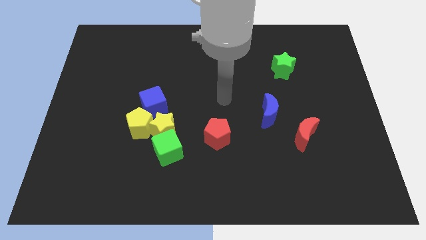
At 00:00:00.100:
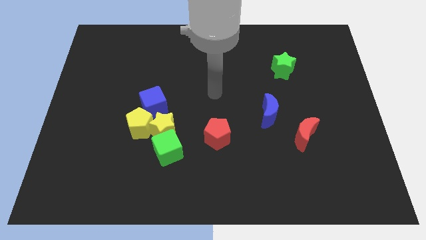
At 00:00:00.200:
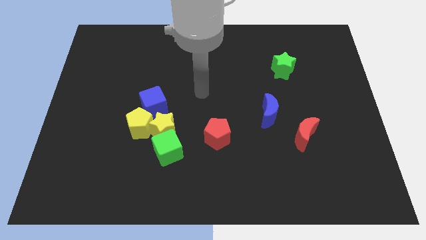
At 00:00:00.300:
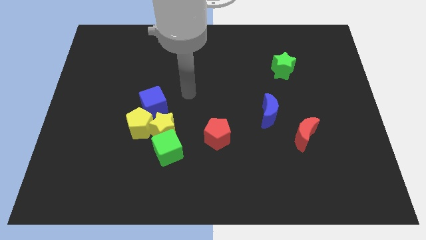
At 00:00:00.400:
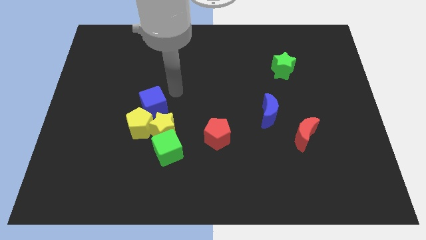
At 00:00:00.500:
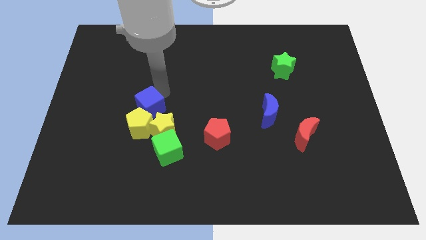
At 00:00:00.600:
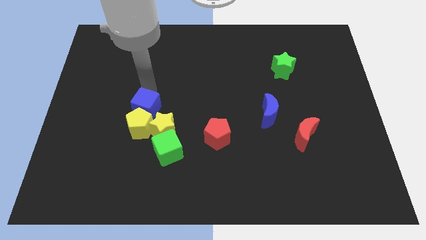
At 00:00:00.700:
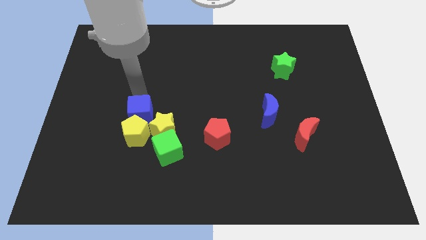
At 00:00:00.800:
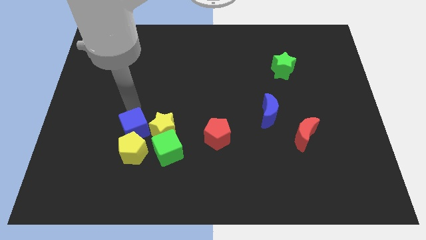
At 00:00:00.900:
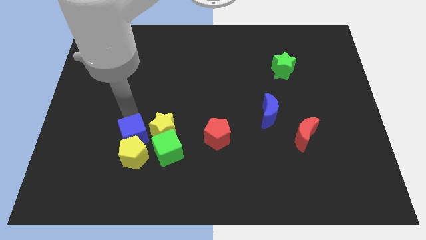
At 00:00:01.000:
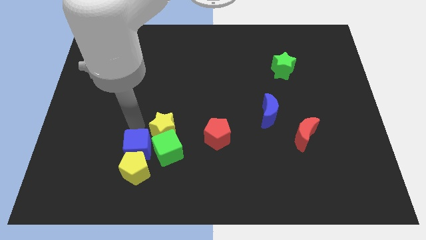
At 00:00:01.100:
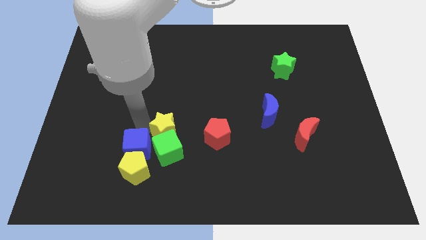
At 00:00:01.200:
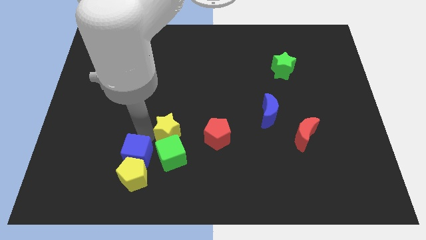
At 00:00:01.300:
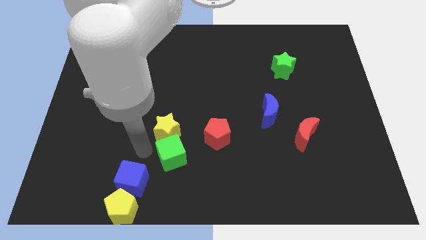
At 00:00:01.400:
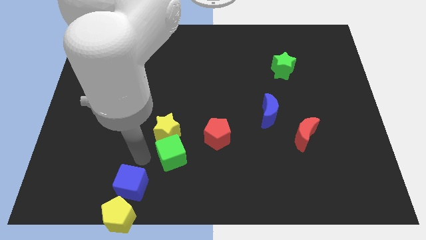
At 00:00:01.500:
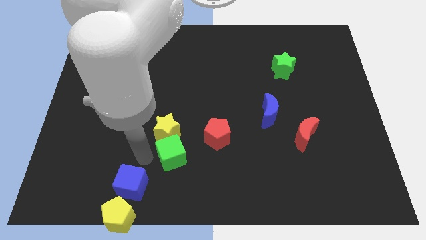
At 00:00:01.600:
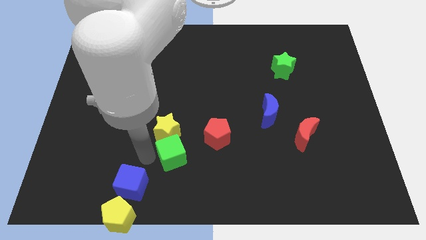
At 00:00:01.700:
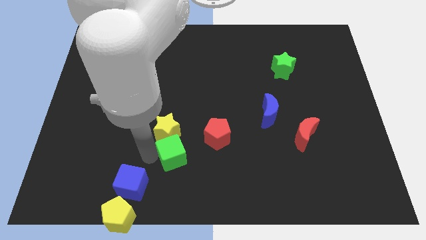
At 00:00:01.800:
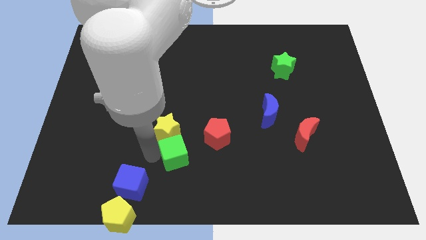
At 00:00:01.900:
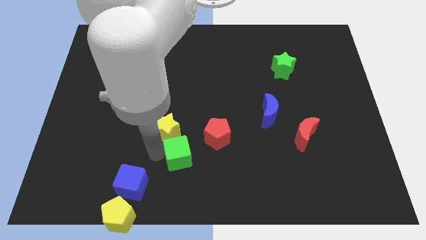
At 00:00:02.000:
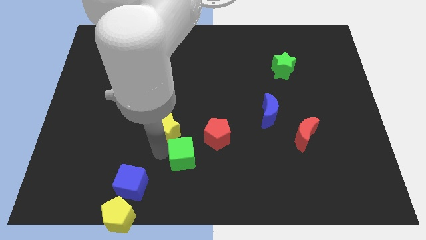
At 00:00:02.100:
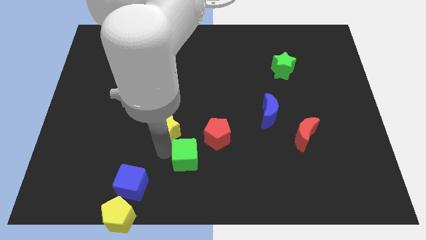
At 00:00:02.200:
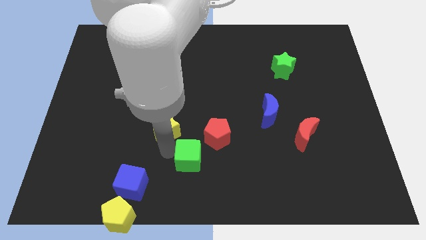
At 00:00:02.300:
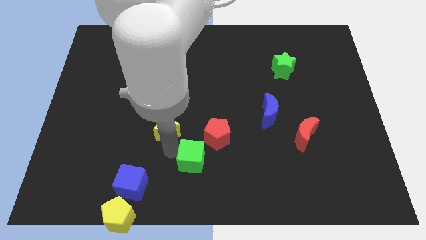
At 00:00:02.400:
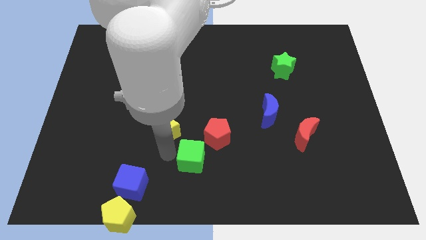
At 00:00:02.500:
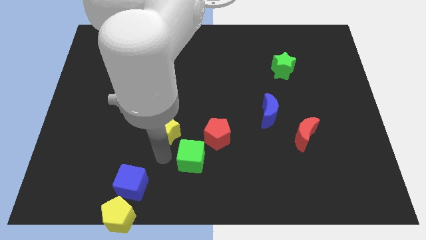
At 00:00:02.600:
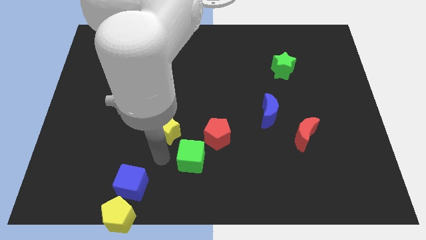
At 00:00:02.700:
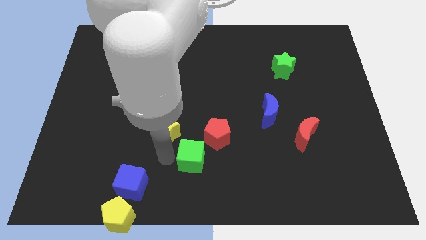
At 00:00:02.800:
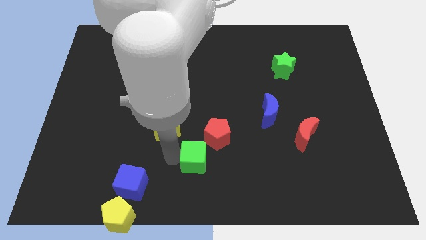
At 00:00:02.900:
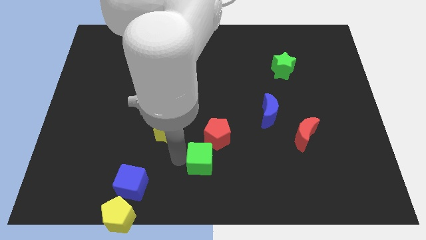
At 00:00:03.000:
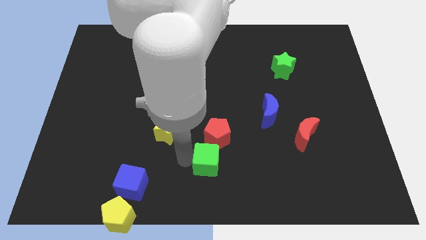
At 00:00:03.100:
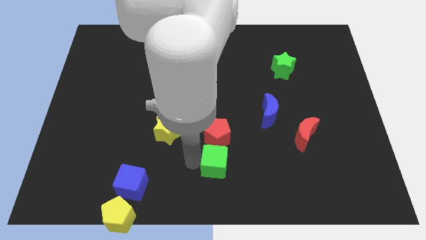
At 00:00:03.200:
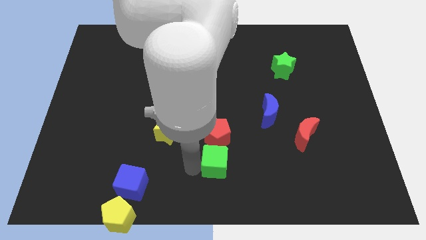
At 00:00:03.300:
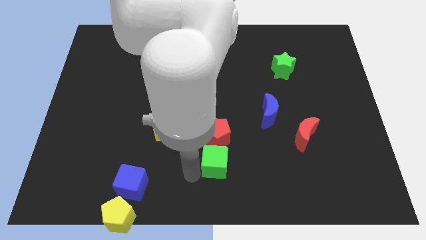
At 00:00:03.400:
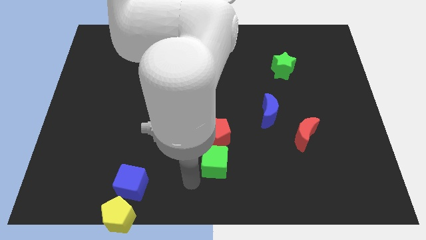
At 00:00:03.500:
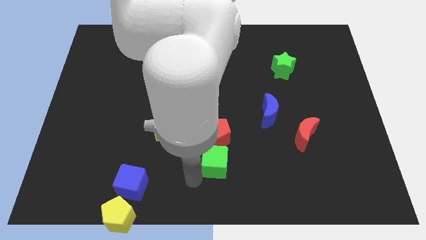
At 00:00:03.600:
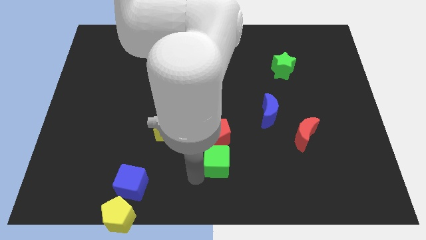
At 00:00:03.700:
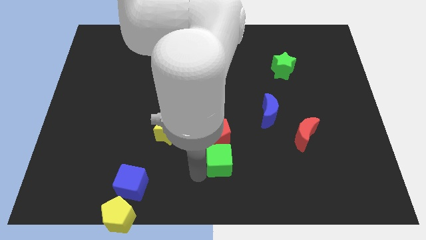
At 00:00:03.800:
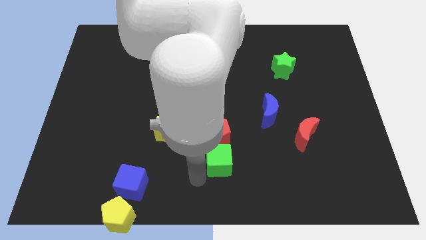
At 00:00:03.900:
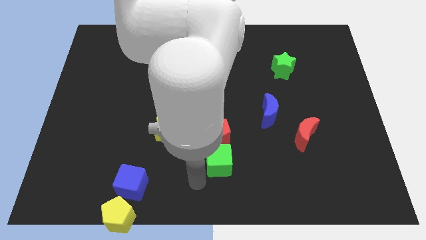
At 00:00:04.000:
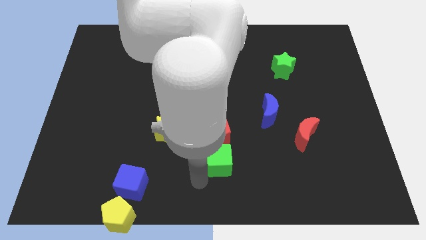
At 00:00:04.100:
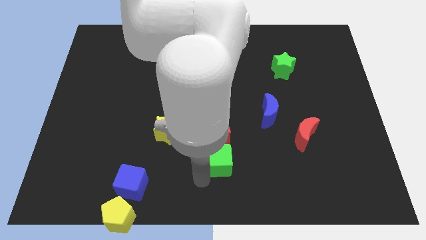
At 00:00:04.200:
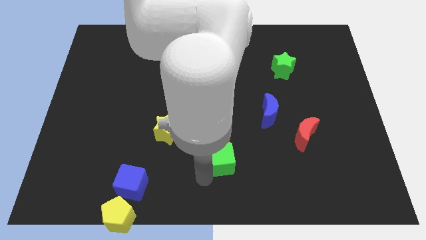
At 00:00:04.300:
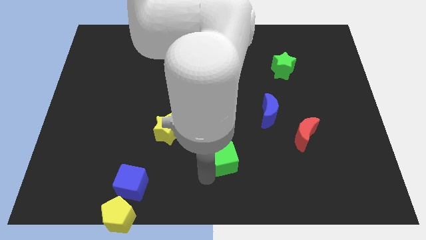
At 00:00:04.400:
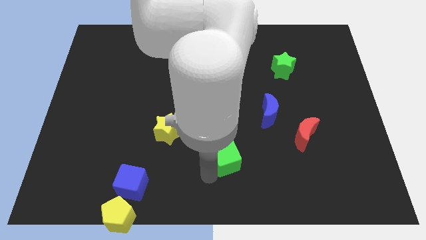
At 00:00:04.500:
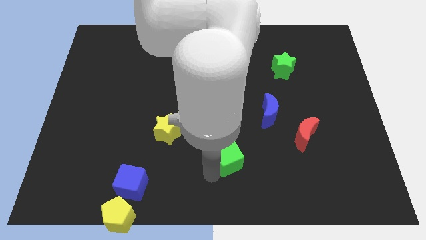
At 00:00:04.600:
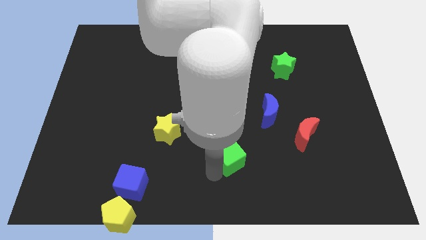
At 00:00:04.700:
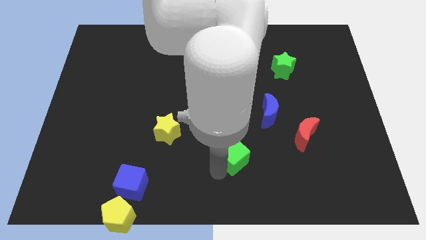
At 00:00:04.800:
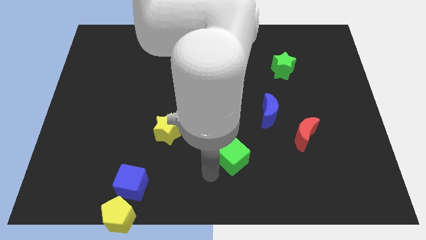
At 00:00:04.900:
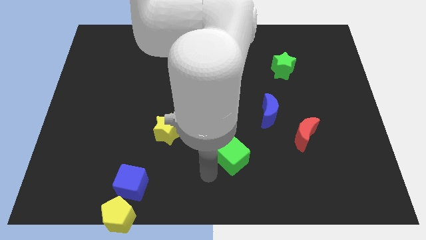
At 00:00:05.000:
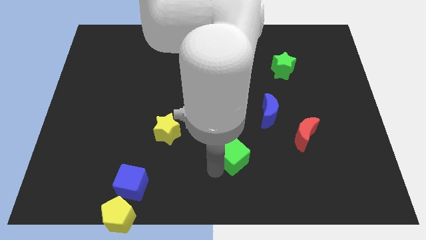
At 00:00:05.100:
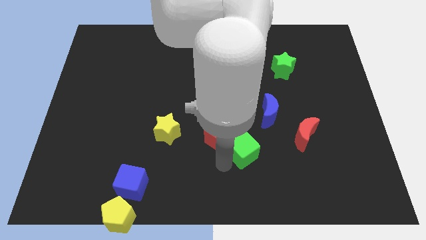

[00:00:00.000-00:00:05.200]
move the green cube to the right of the red pentagon

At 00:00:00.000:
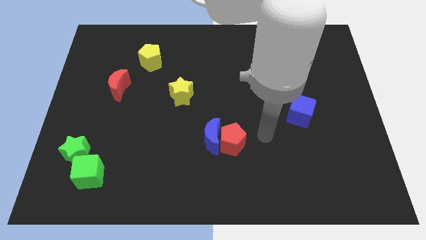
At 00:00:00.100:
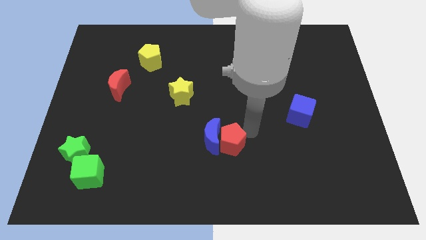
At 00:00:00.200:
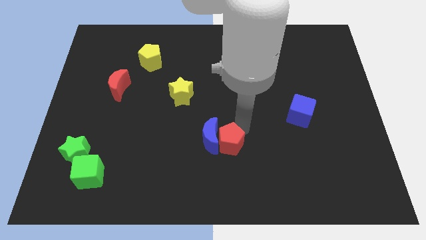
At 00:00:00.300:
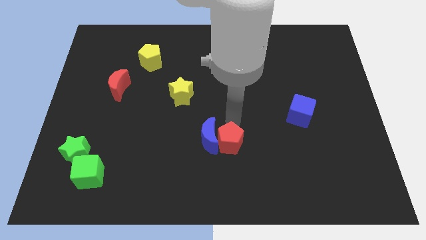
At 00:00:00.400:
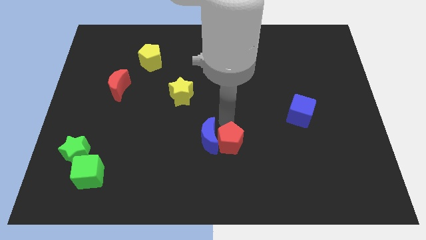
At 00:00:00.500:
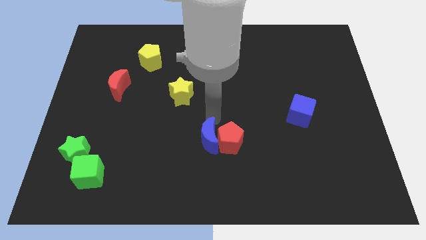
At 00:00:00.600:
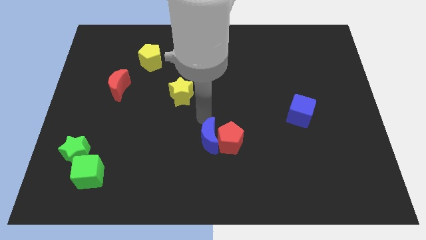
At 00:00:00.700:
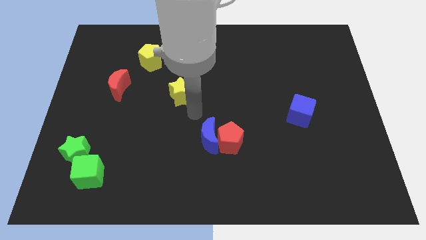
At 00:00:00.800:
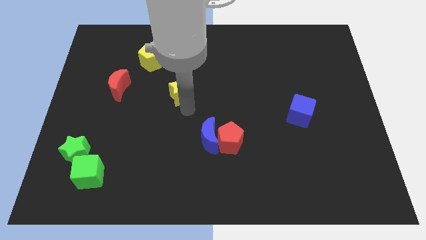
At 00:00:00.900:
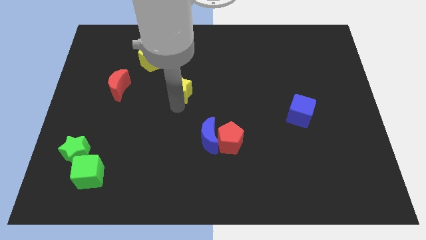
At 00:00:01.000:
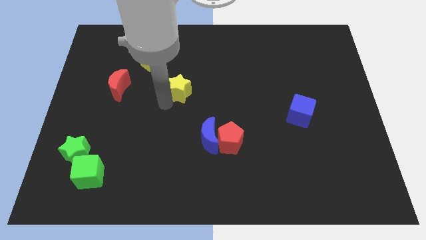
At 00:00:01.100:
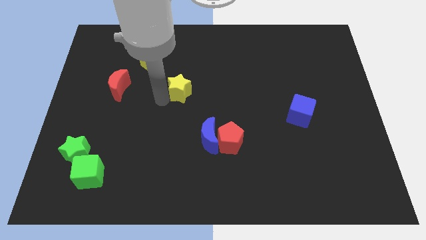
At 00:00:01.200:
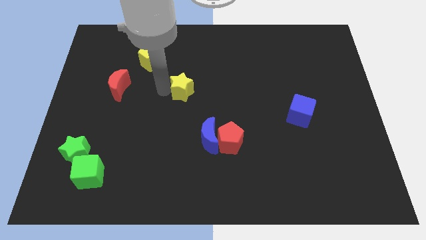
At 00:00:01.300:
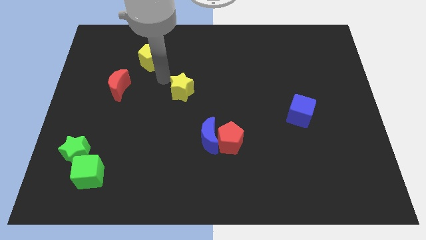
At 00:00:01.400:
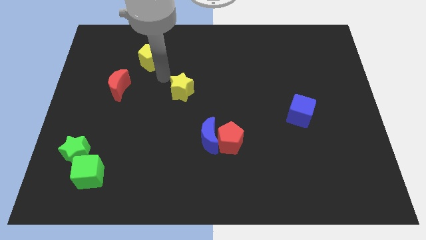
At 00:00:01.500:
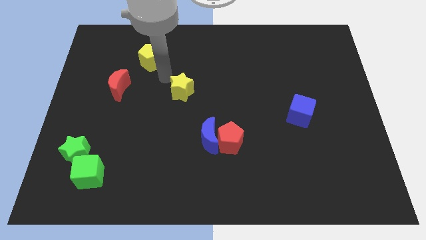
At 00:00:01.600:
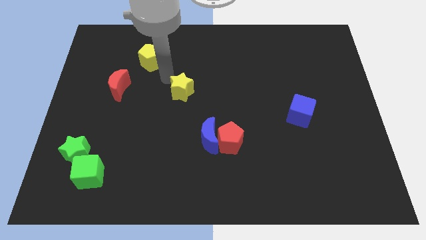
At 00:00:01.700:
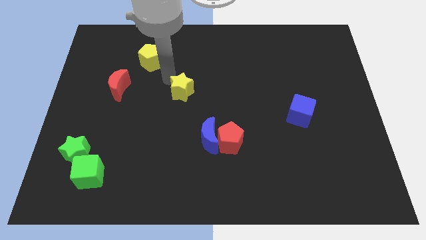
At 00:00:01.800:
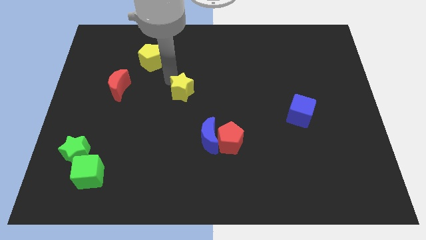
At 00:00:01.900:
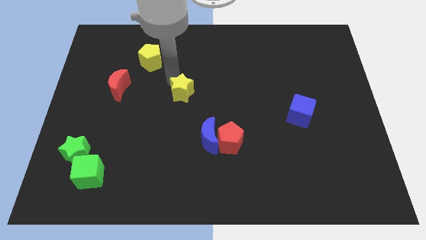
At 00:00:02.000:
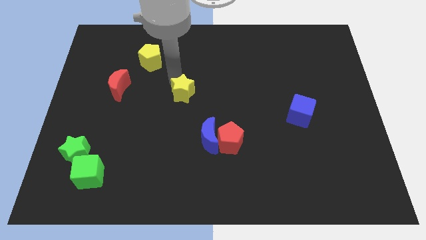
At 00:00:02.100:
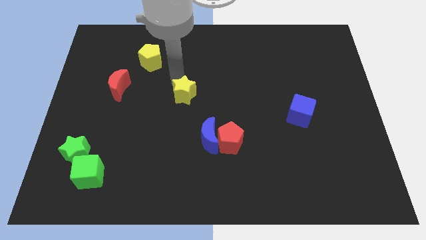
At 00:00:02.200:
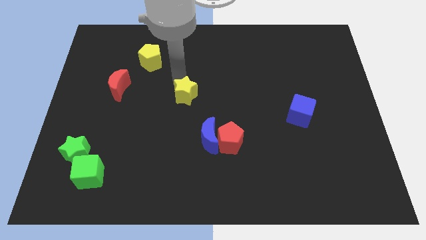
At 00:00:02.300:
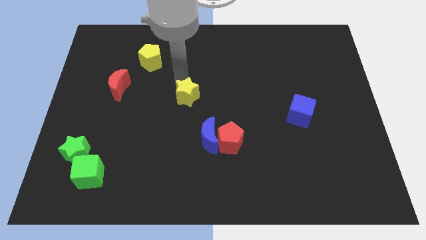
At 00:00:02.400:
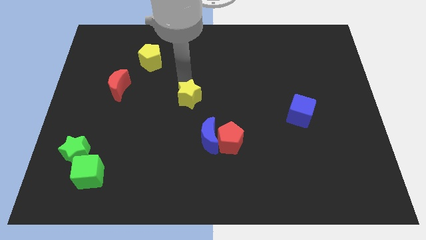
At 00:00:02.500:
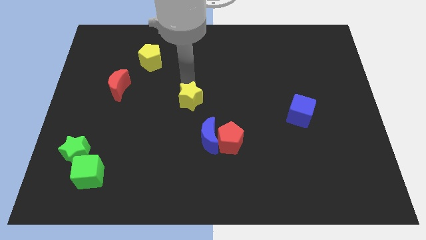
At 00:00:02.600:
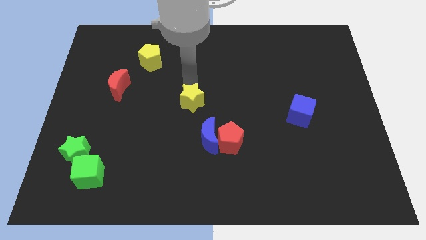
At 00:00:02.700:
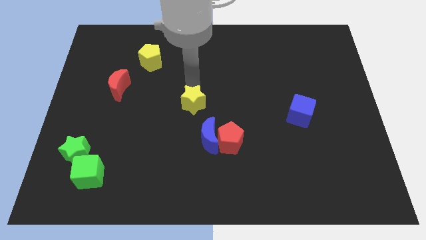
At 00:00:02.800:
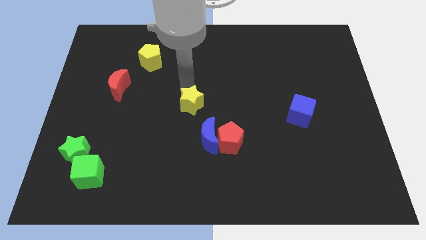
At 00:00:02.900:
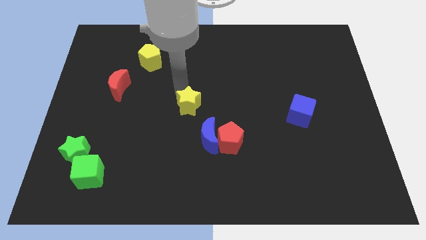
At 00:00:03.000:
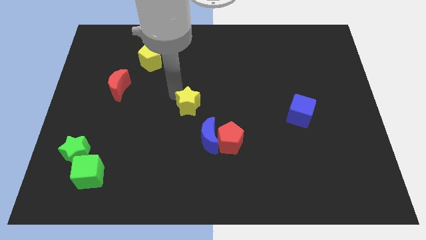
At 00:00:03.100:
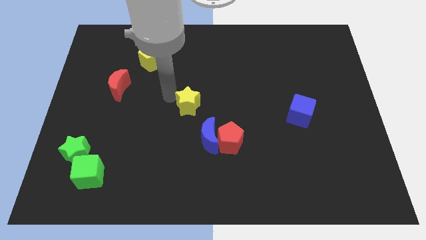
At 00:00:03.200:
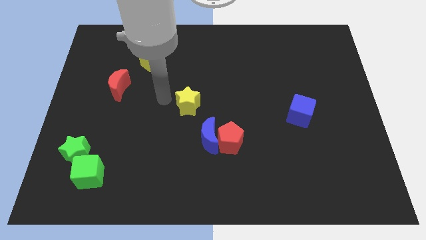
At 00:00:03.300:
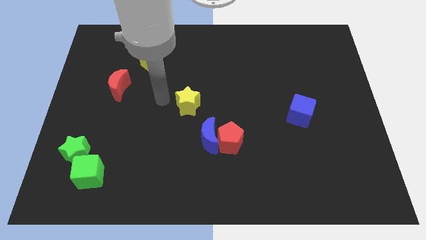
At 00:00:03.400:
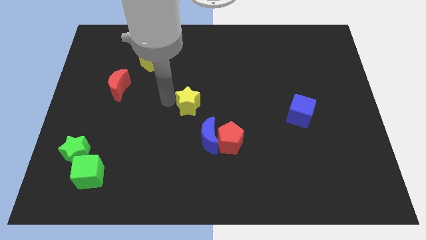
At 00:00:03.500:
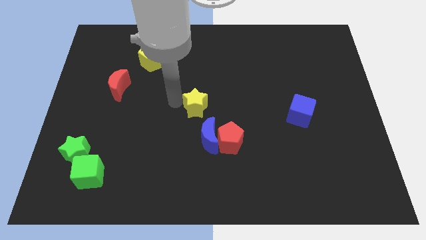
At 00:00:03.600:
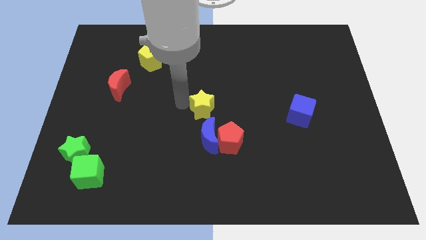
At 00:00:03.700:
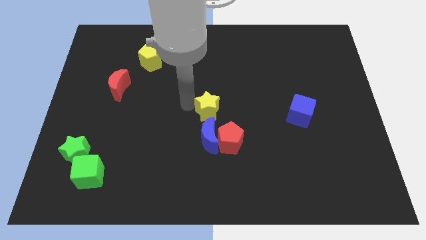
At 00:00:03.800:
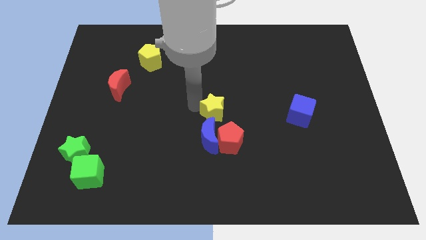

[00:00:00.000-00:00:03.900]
put the yellow star diagonally up and to the right of the blue moon
